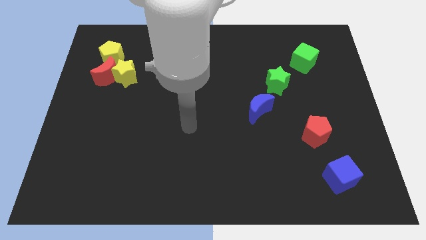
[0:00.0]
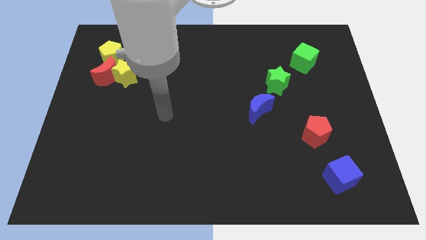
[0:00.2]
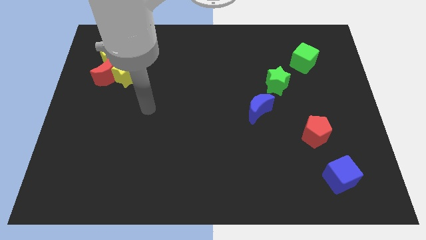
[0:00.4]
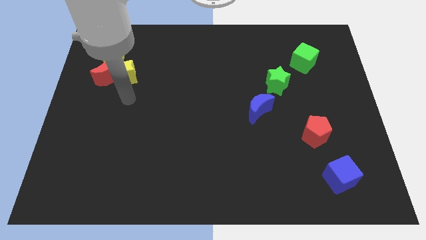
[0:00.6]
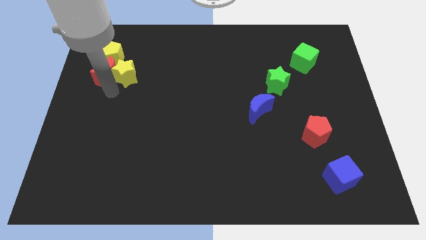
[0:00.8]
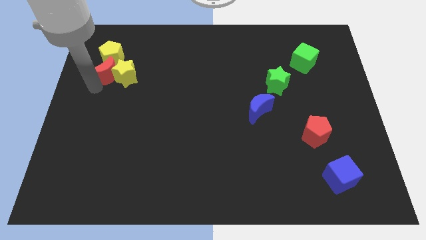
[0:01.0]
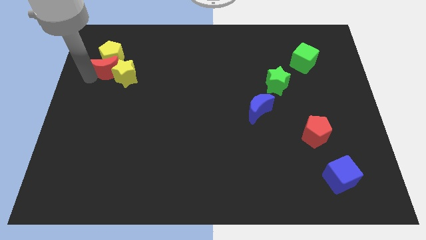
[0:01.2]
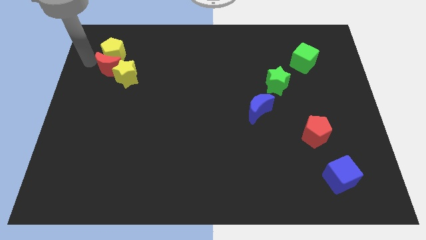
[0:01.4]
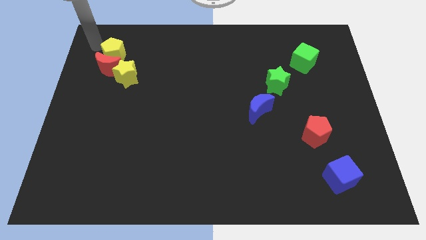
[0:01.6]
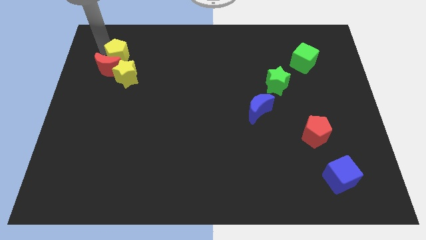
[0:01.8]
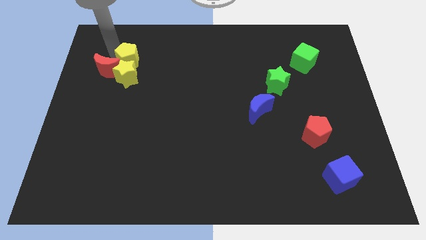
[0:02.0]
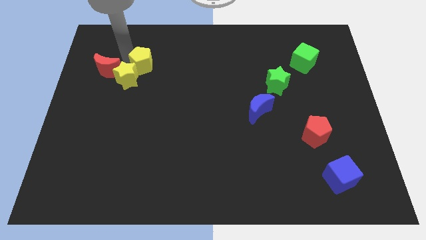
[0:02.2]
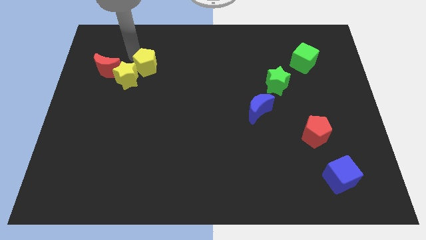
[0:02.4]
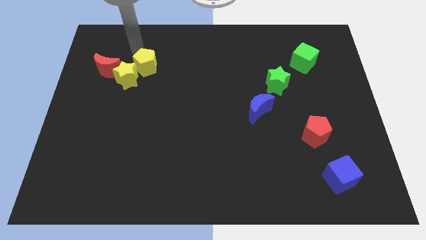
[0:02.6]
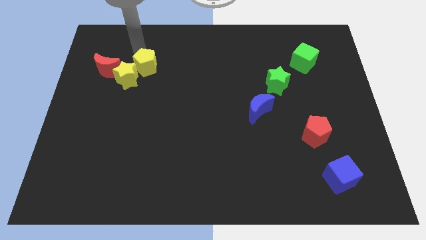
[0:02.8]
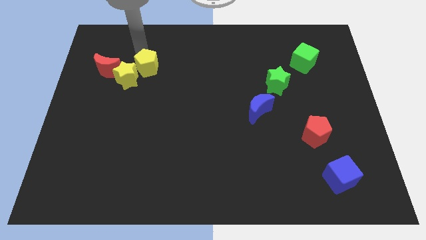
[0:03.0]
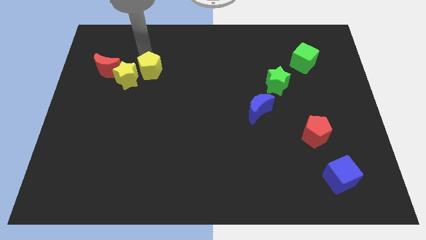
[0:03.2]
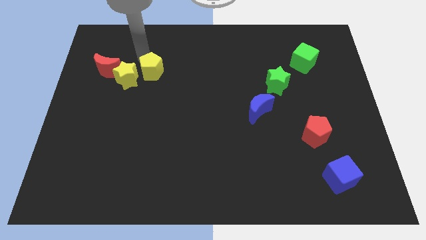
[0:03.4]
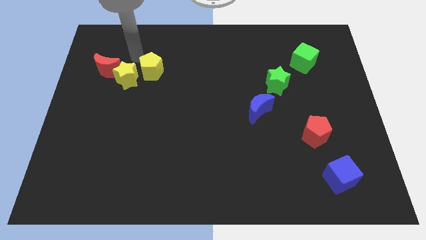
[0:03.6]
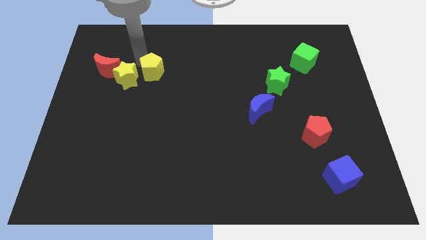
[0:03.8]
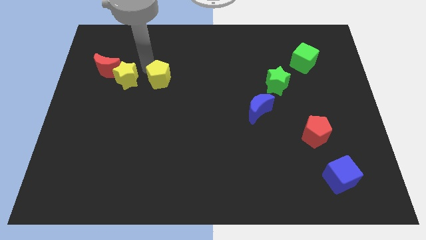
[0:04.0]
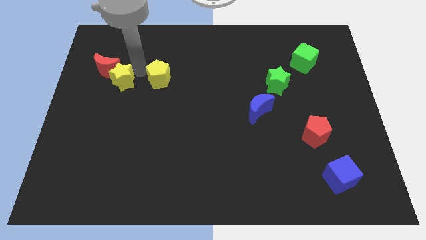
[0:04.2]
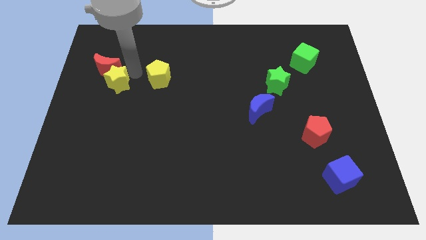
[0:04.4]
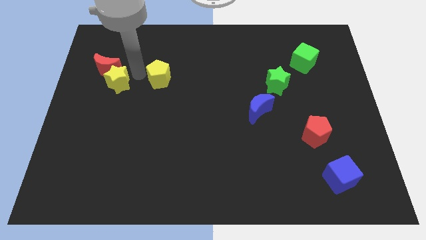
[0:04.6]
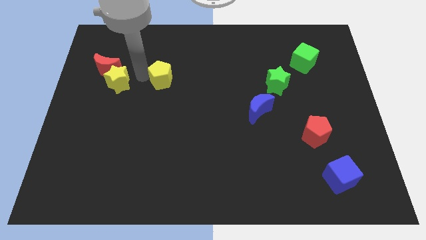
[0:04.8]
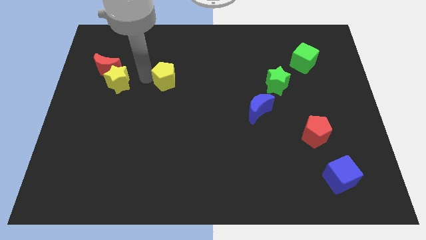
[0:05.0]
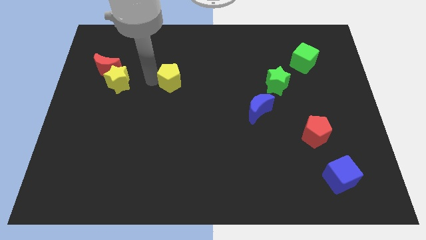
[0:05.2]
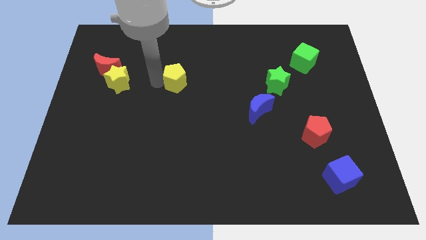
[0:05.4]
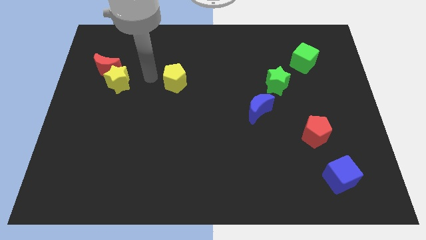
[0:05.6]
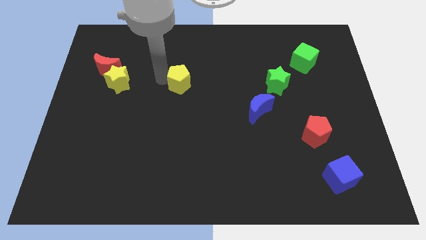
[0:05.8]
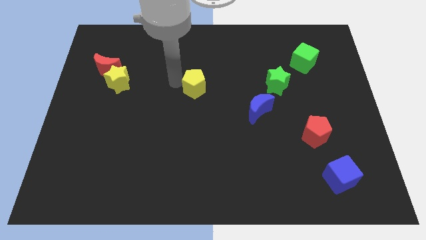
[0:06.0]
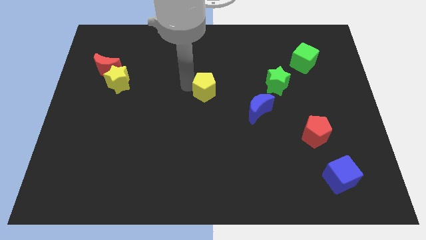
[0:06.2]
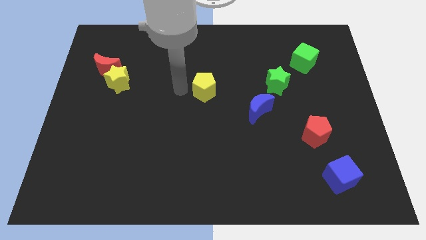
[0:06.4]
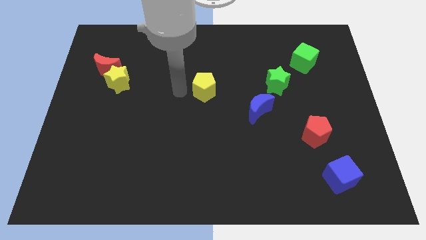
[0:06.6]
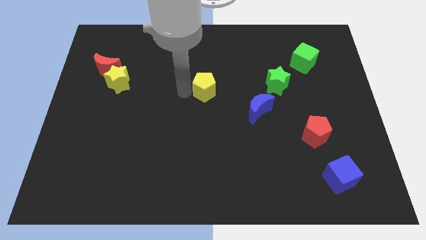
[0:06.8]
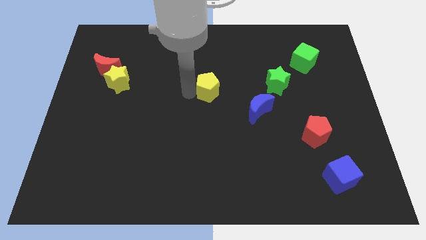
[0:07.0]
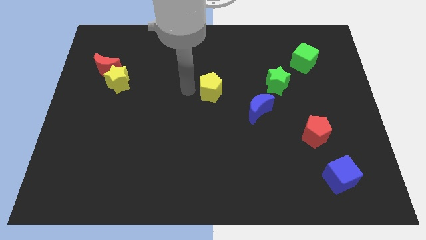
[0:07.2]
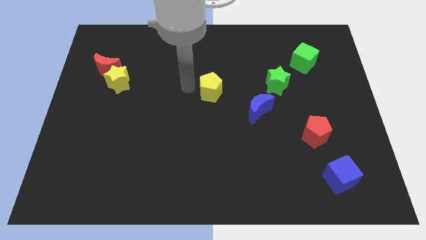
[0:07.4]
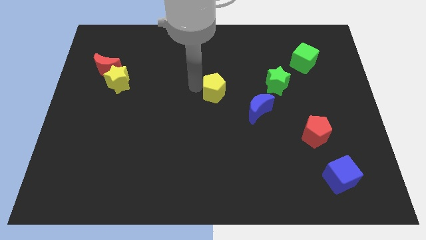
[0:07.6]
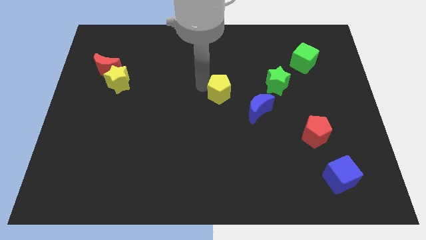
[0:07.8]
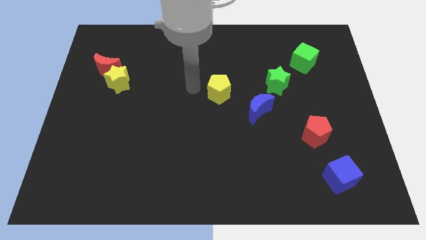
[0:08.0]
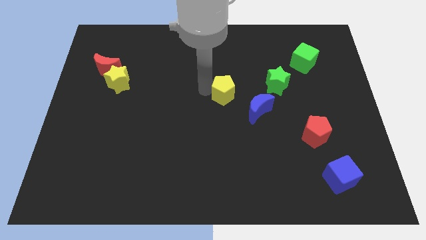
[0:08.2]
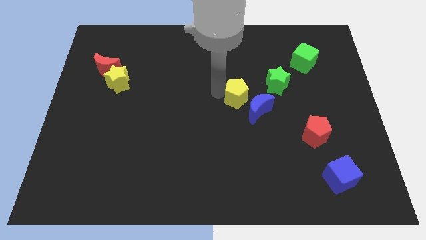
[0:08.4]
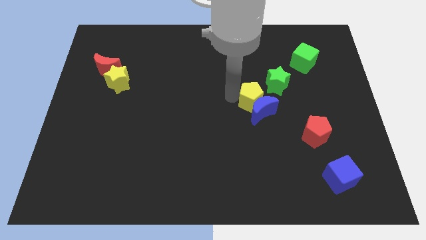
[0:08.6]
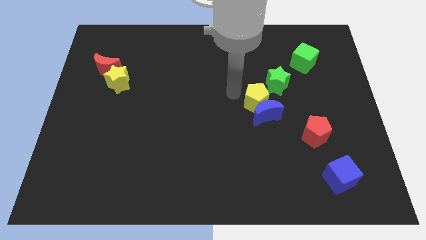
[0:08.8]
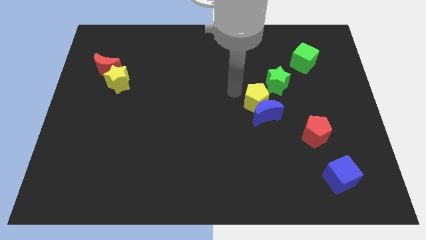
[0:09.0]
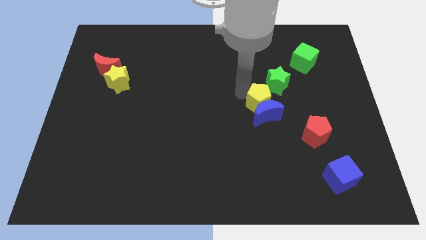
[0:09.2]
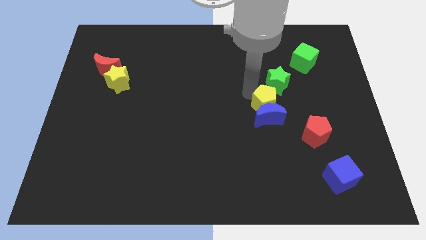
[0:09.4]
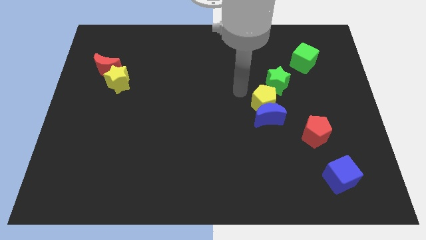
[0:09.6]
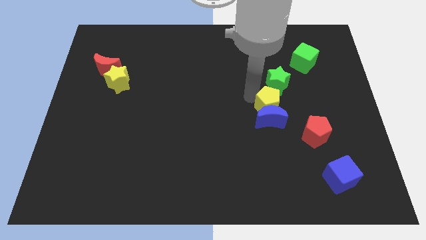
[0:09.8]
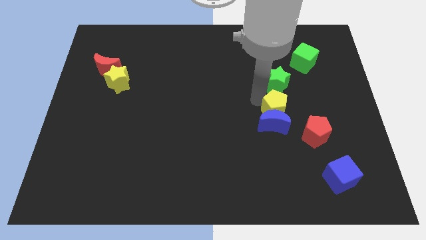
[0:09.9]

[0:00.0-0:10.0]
move the yellow pentagon diagonally up and to the left of the red pentagon

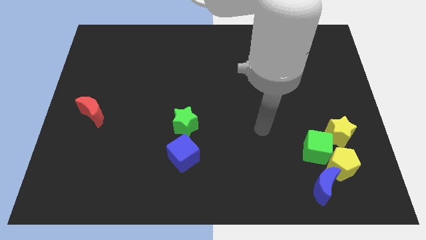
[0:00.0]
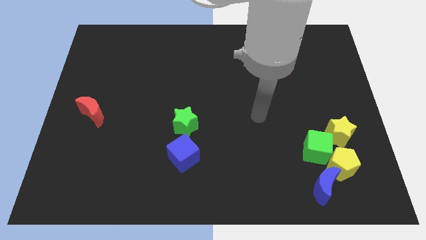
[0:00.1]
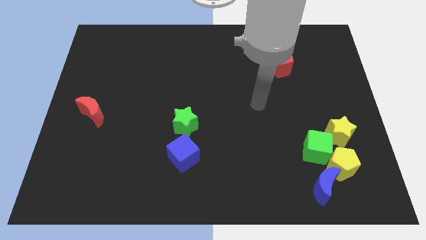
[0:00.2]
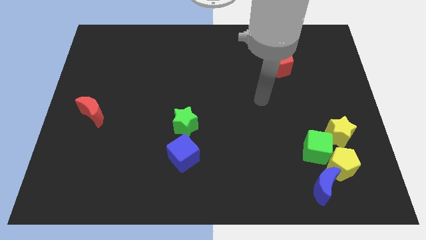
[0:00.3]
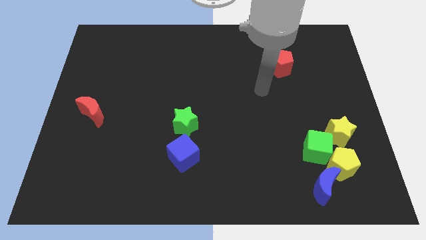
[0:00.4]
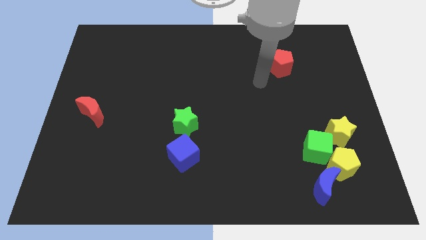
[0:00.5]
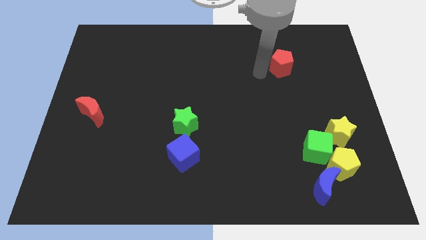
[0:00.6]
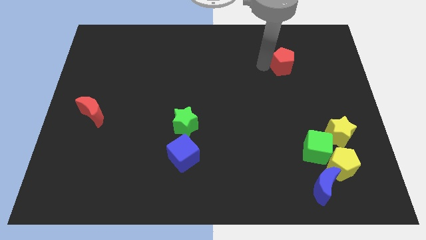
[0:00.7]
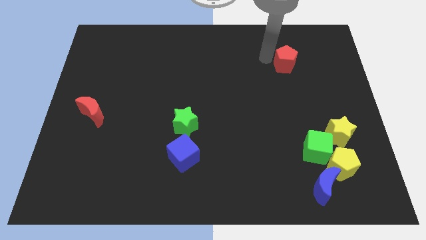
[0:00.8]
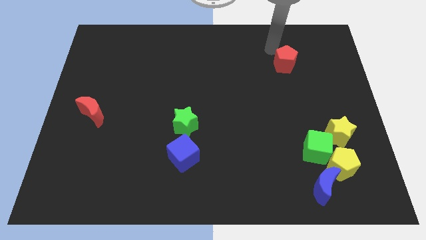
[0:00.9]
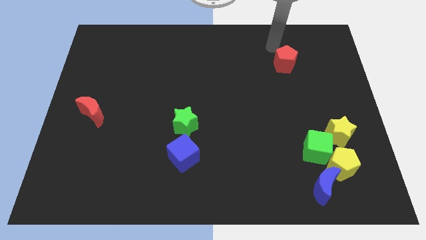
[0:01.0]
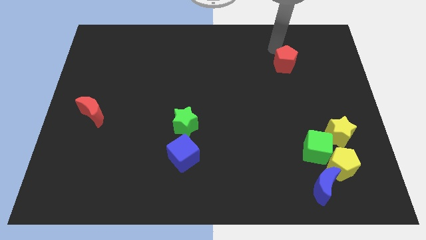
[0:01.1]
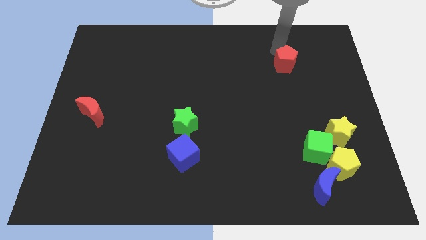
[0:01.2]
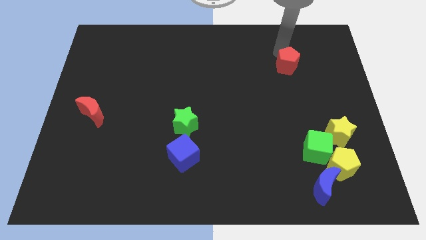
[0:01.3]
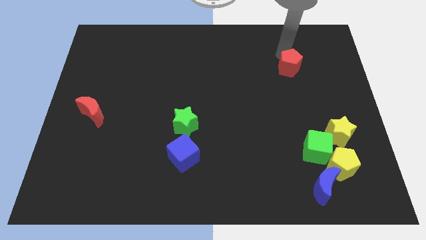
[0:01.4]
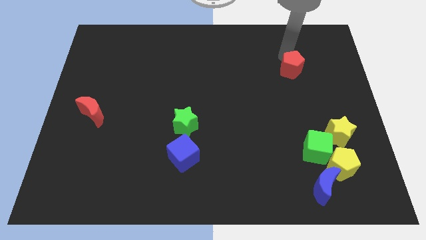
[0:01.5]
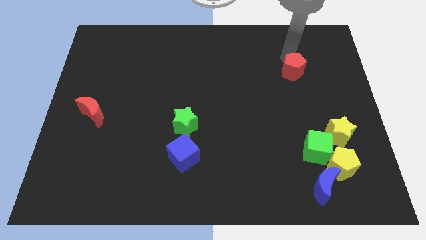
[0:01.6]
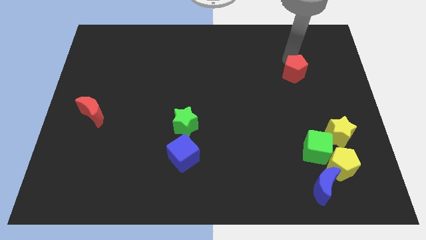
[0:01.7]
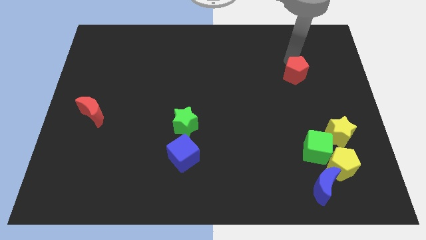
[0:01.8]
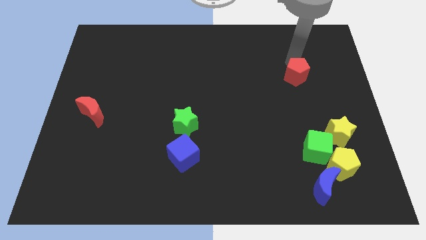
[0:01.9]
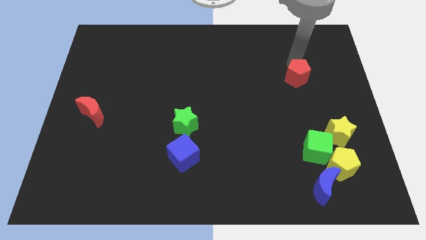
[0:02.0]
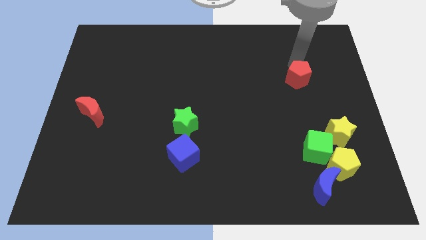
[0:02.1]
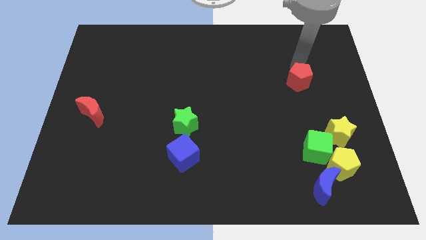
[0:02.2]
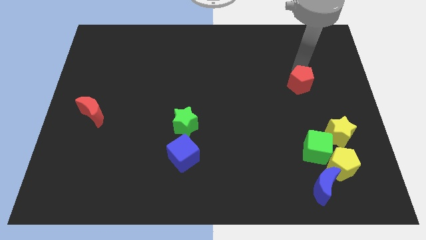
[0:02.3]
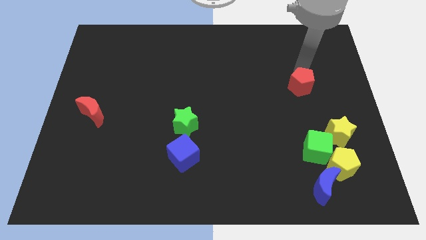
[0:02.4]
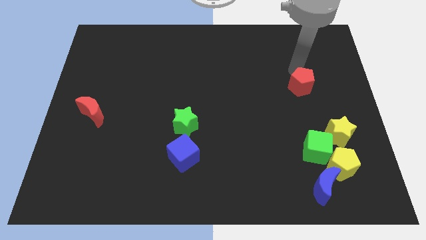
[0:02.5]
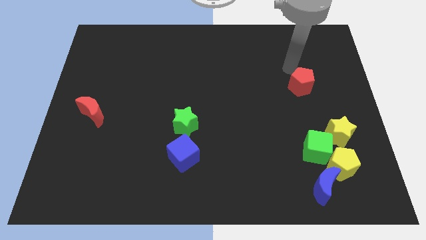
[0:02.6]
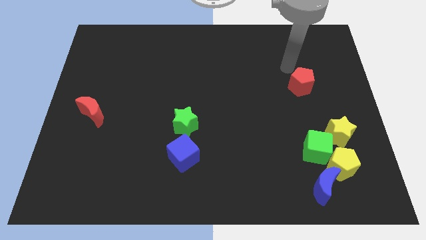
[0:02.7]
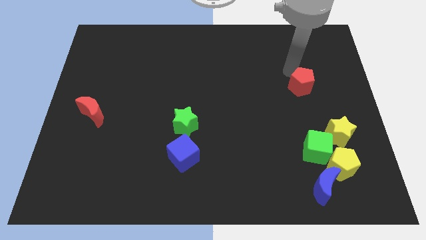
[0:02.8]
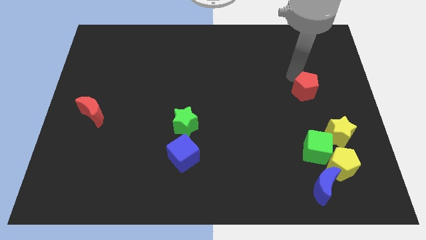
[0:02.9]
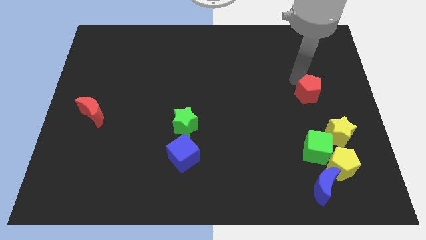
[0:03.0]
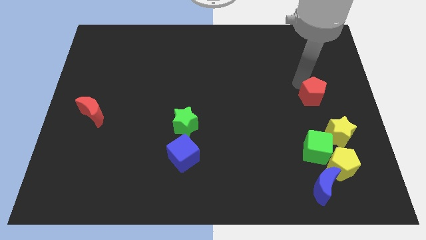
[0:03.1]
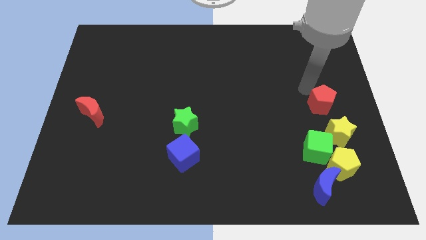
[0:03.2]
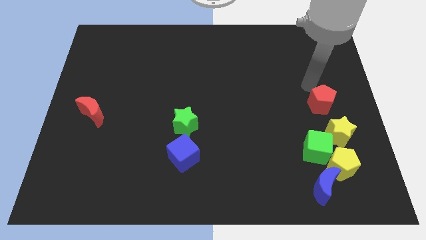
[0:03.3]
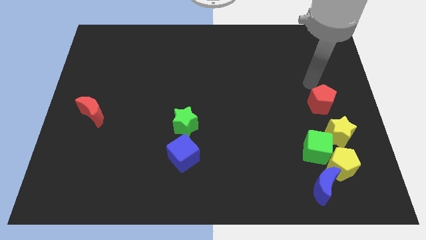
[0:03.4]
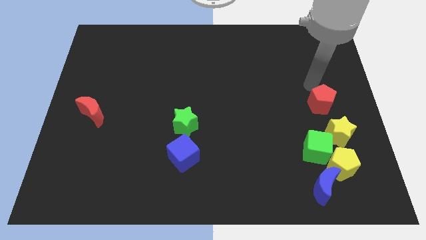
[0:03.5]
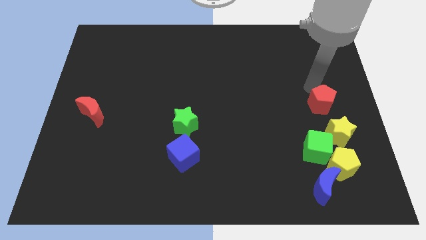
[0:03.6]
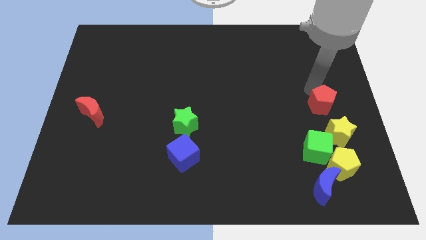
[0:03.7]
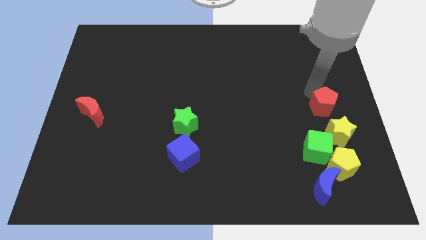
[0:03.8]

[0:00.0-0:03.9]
push the red pentagon above the yellow pentagon
